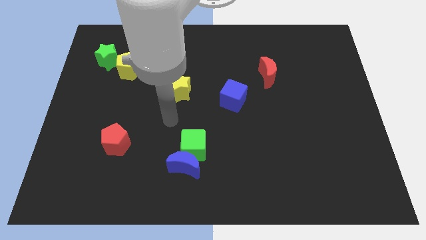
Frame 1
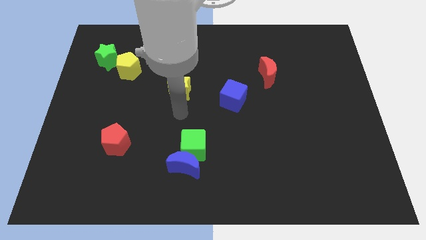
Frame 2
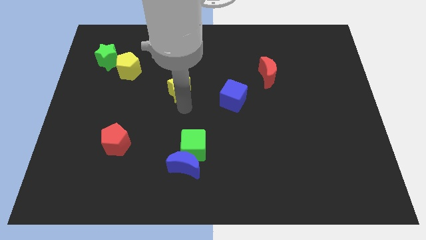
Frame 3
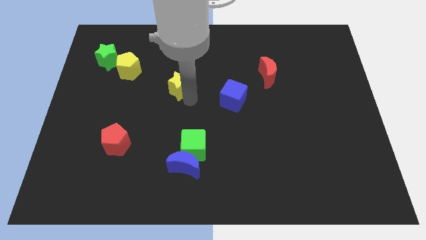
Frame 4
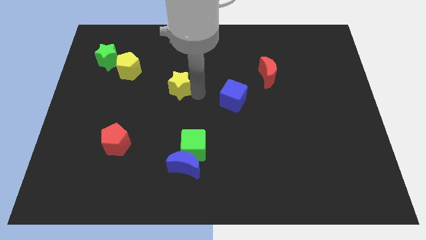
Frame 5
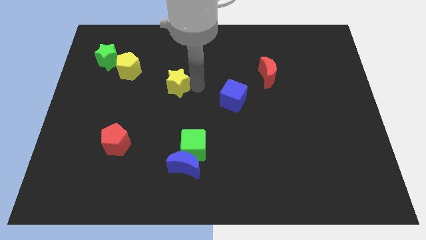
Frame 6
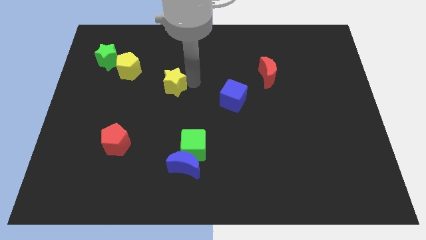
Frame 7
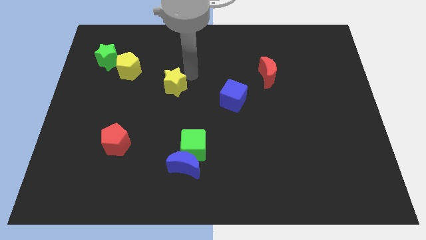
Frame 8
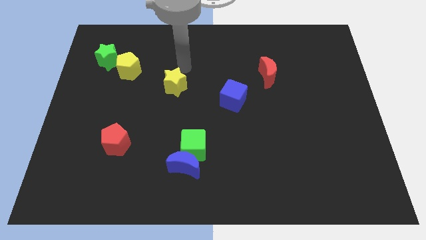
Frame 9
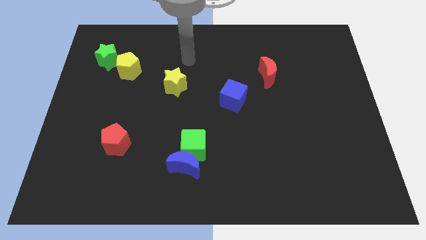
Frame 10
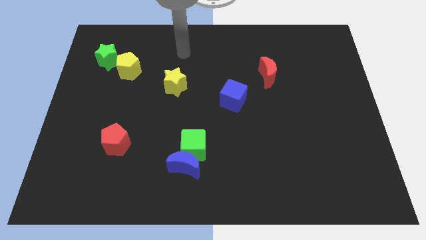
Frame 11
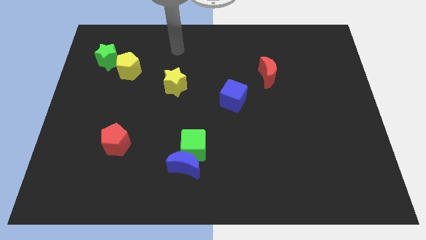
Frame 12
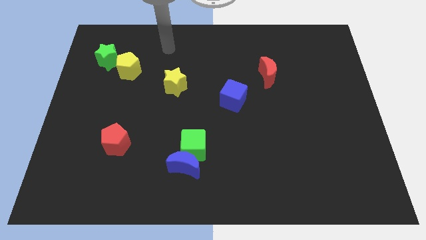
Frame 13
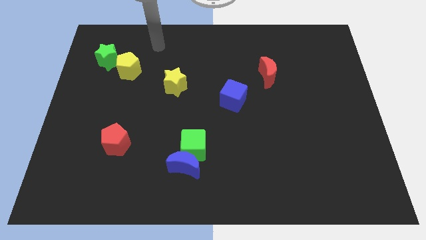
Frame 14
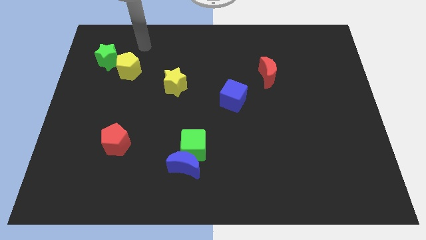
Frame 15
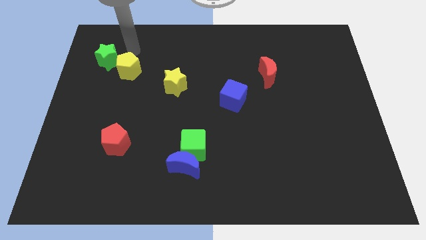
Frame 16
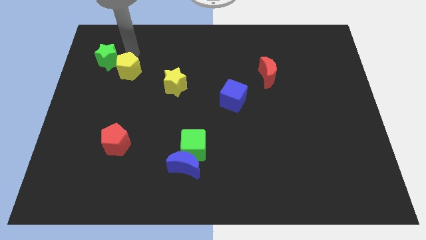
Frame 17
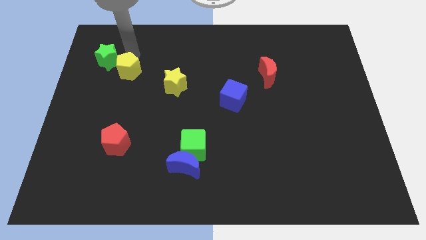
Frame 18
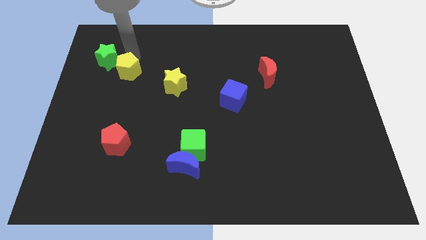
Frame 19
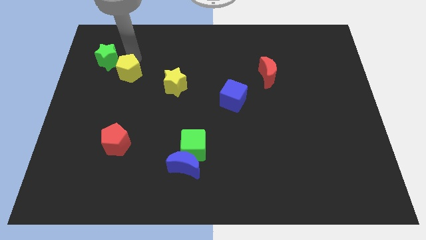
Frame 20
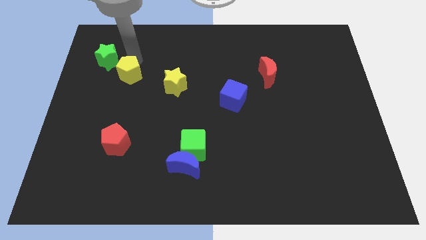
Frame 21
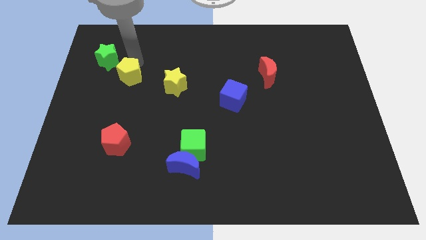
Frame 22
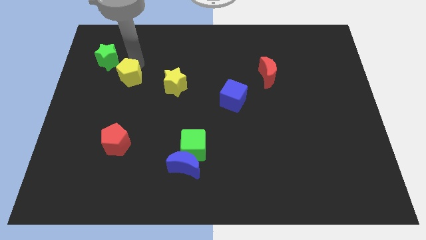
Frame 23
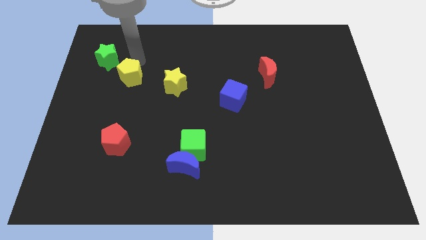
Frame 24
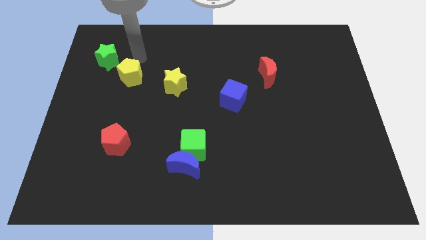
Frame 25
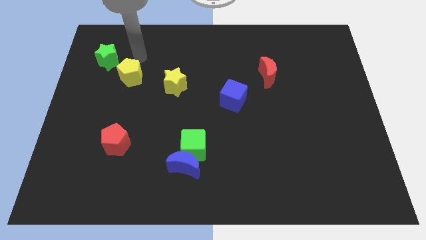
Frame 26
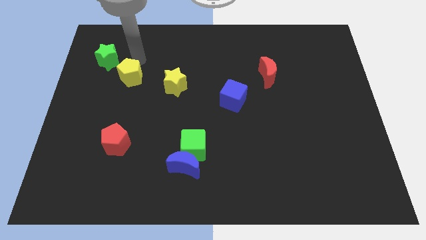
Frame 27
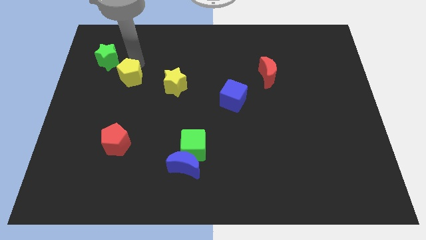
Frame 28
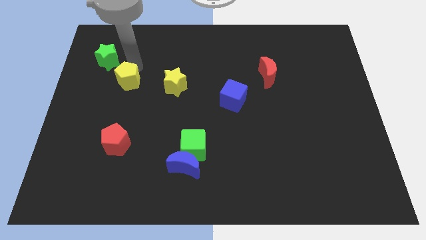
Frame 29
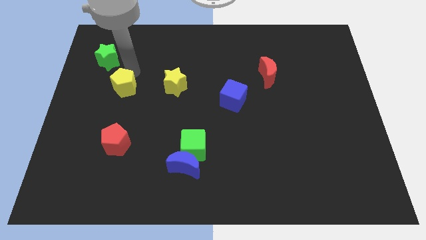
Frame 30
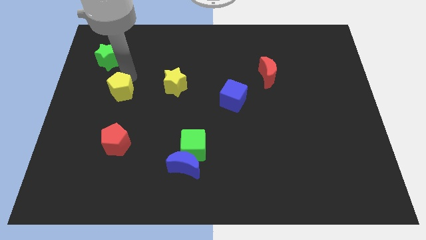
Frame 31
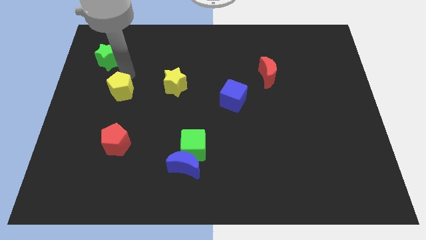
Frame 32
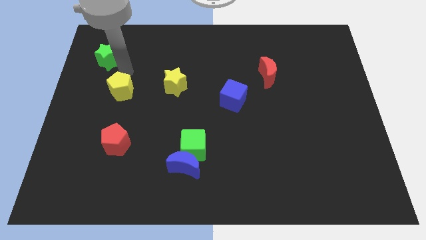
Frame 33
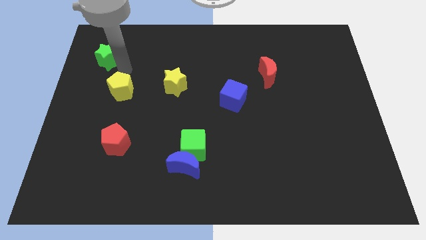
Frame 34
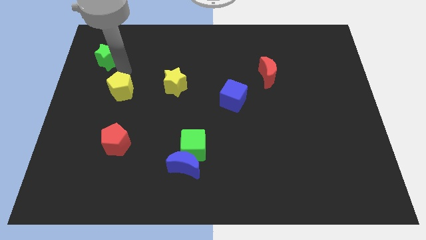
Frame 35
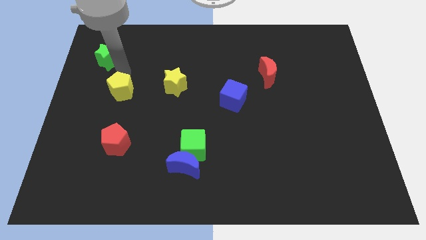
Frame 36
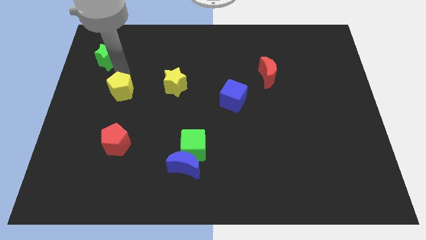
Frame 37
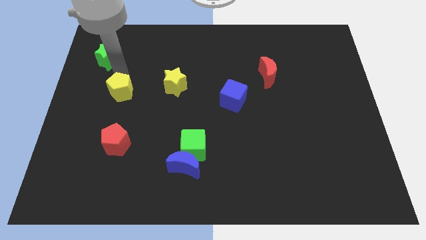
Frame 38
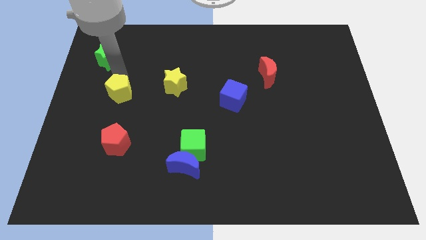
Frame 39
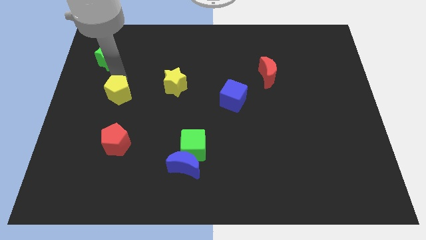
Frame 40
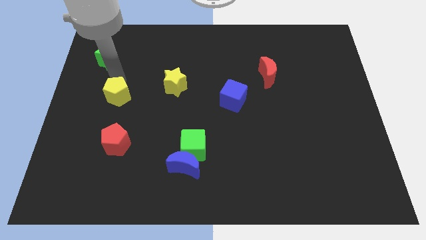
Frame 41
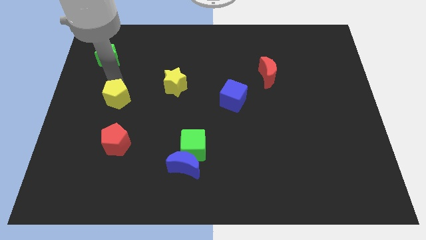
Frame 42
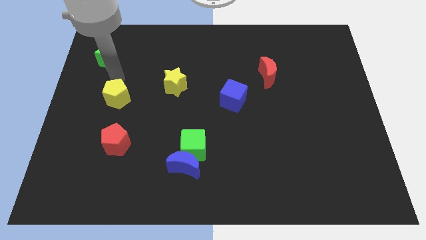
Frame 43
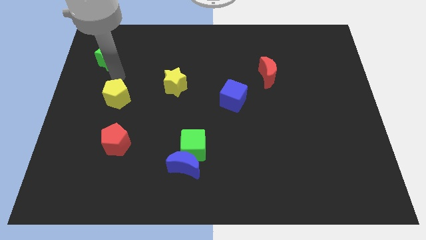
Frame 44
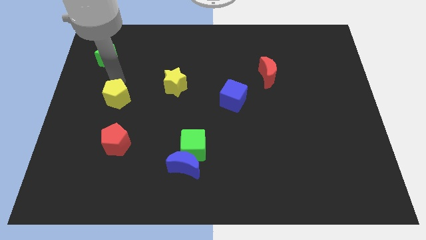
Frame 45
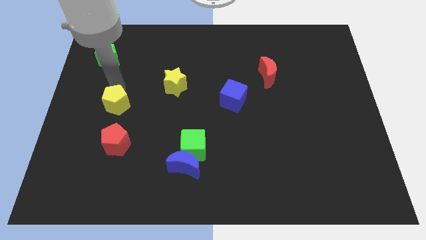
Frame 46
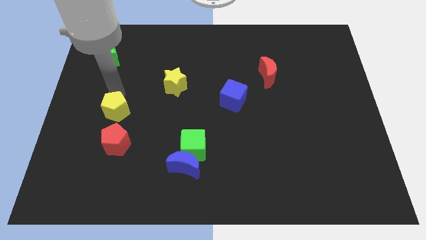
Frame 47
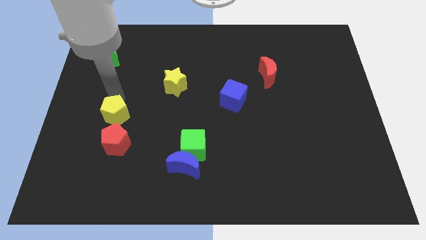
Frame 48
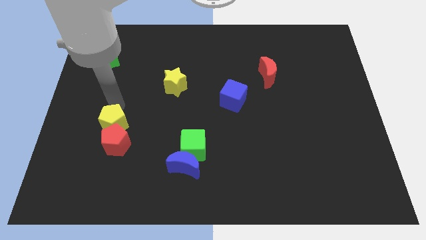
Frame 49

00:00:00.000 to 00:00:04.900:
move the yellow pentagon to the red pentagon

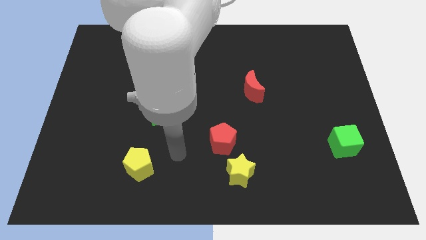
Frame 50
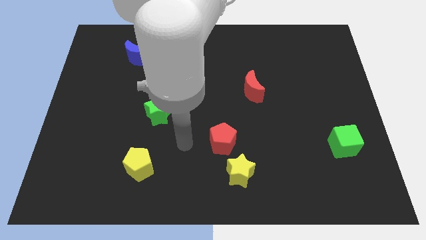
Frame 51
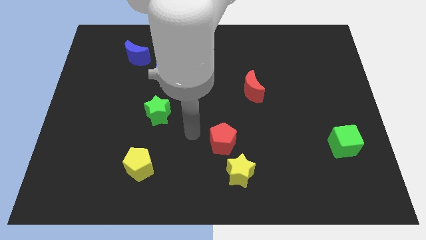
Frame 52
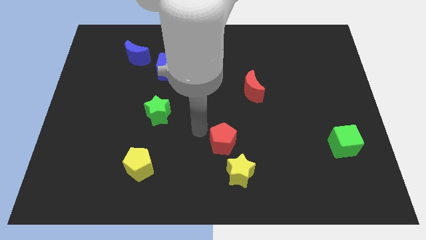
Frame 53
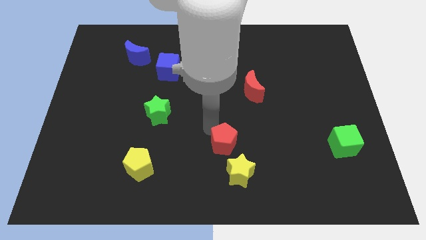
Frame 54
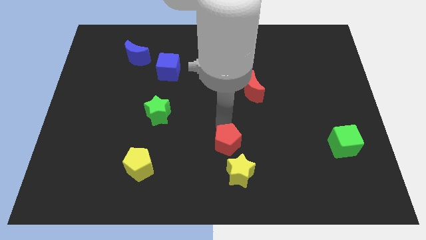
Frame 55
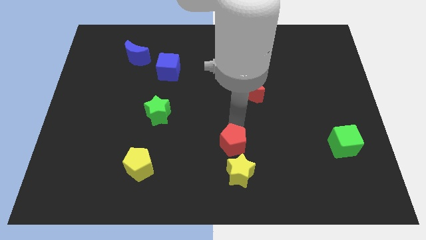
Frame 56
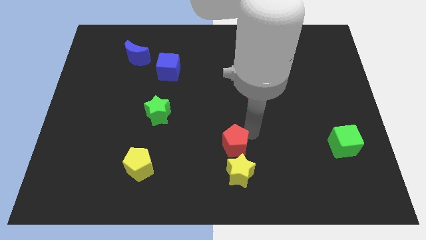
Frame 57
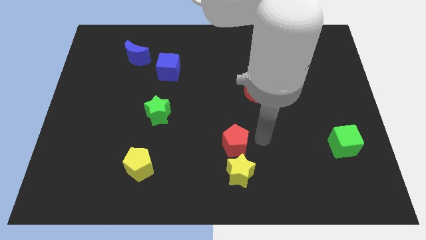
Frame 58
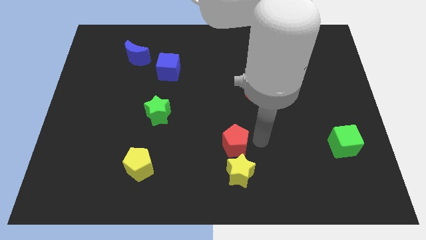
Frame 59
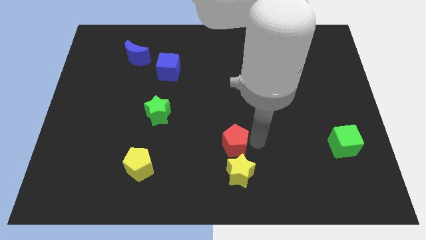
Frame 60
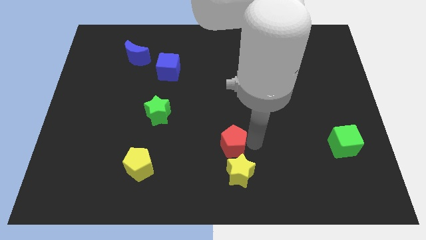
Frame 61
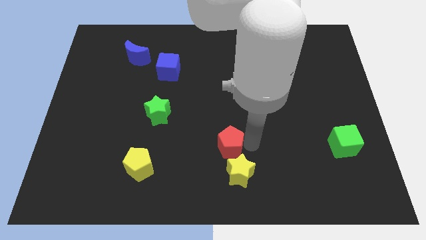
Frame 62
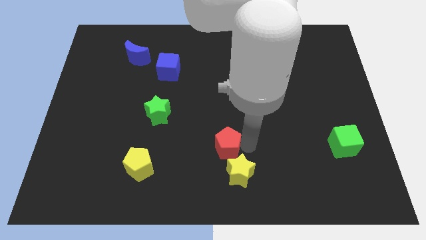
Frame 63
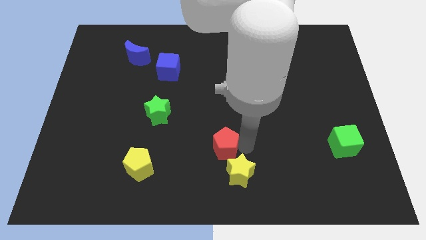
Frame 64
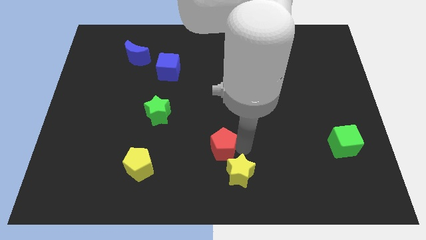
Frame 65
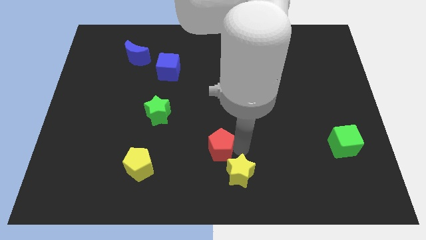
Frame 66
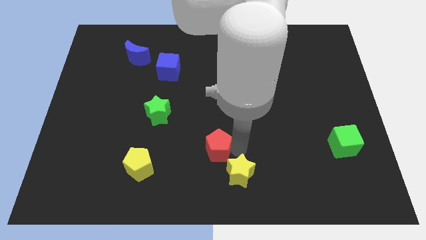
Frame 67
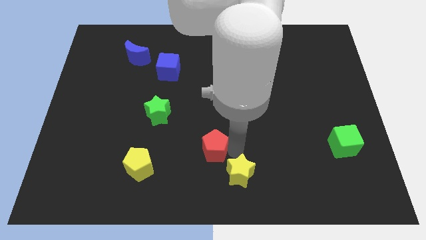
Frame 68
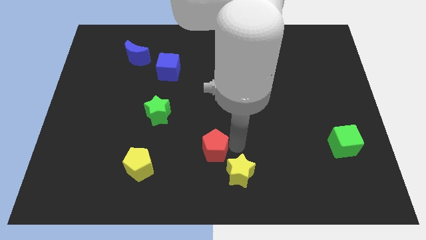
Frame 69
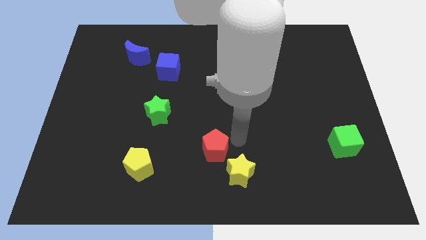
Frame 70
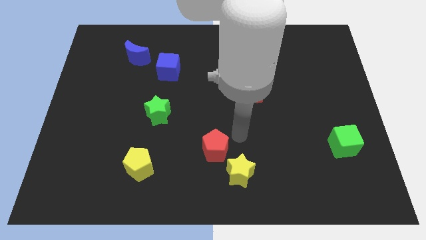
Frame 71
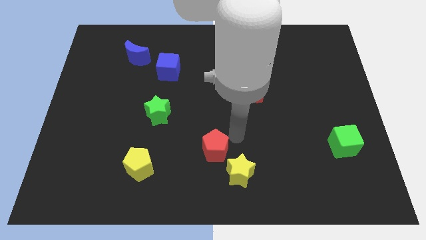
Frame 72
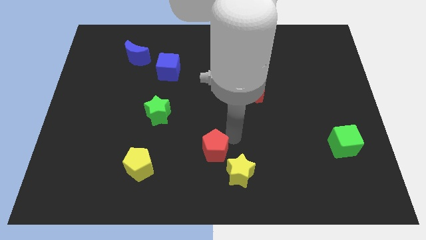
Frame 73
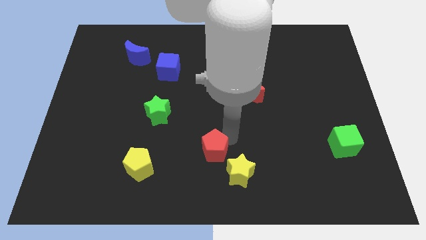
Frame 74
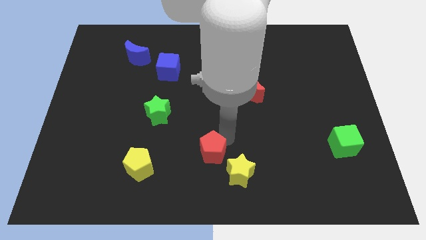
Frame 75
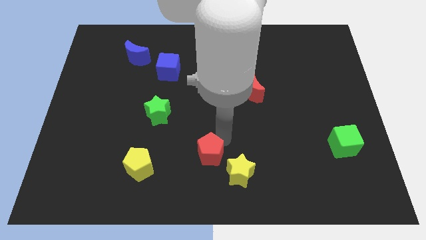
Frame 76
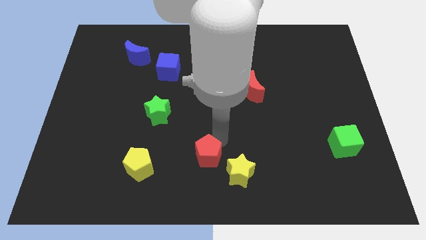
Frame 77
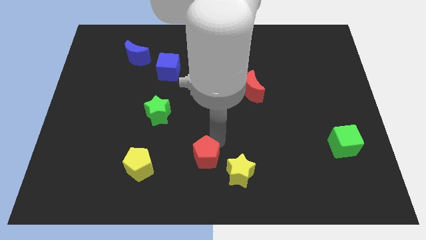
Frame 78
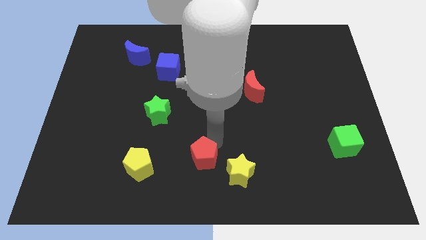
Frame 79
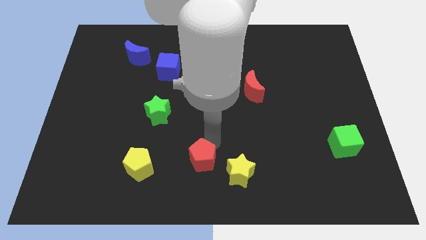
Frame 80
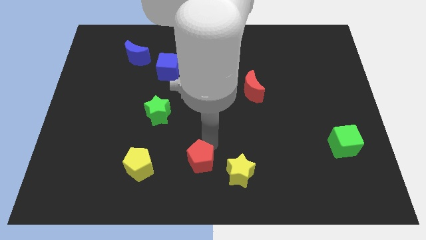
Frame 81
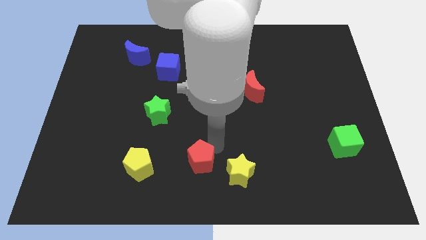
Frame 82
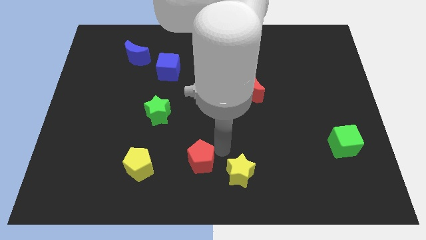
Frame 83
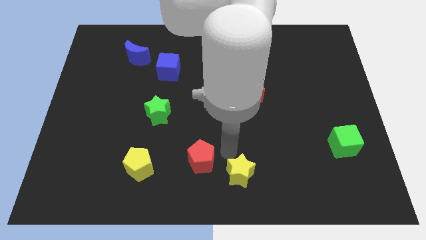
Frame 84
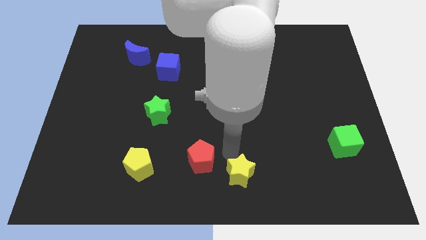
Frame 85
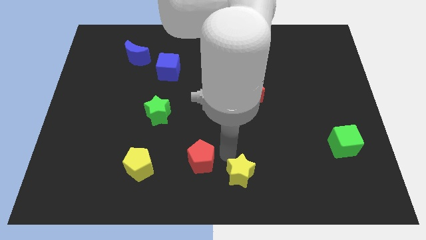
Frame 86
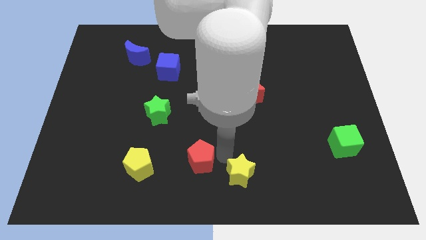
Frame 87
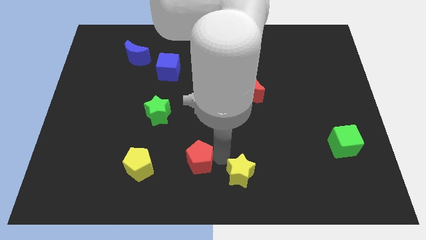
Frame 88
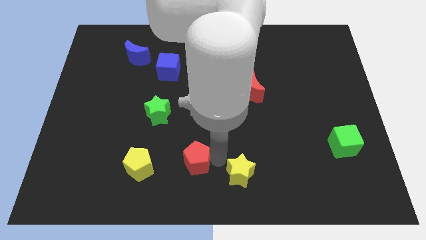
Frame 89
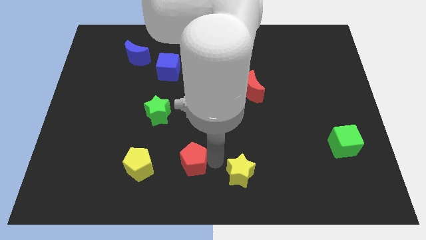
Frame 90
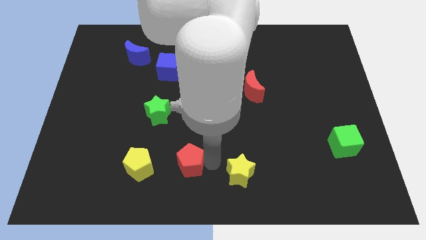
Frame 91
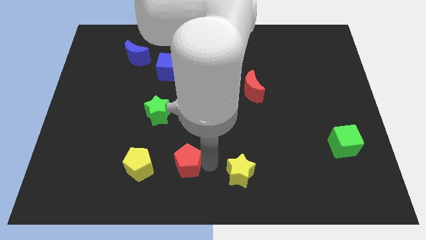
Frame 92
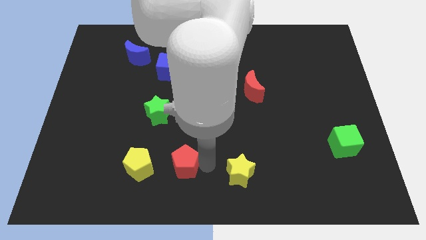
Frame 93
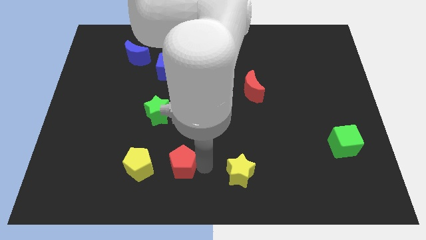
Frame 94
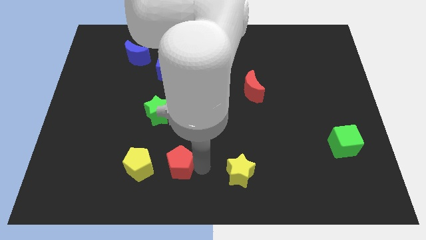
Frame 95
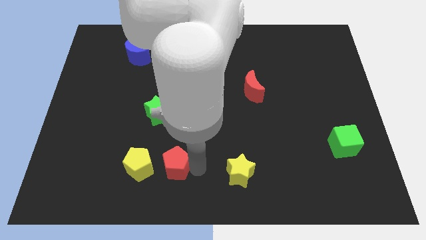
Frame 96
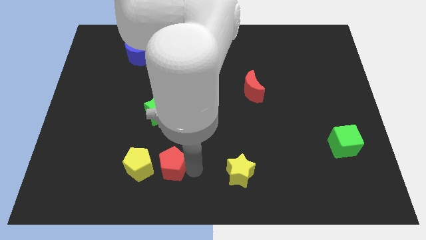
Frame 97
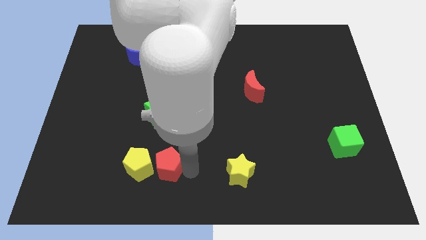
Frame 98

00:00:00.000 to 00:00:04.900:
put the red pentagon next to the yellow pentagon
